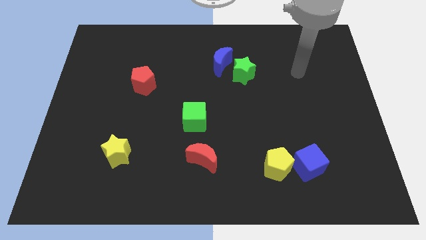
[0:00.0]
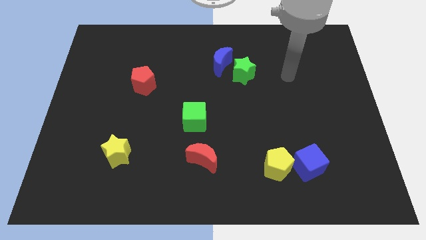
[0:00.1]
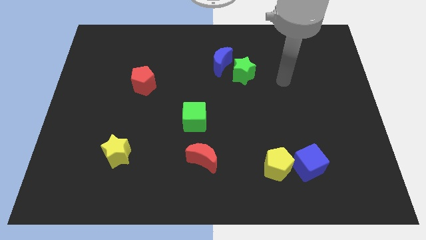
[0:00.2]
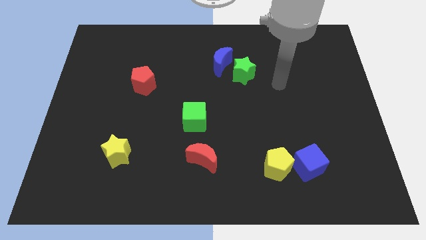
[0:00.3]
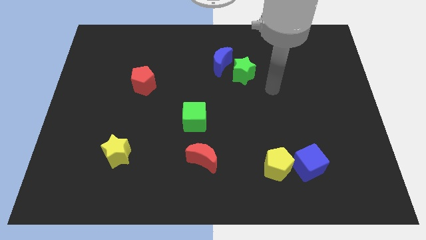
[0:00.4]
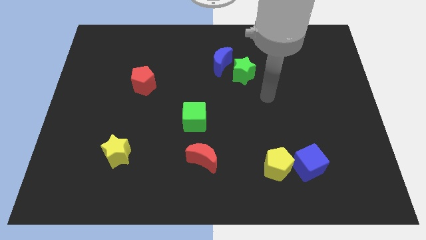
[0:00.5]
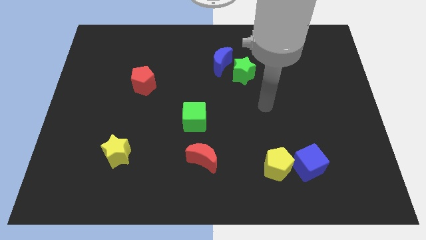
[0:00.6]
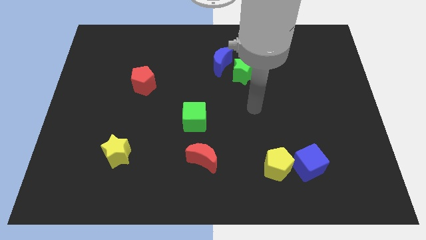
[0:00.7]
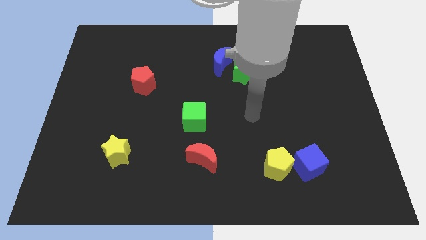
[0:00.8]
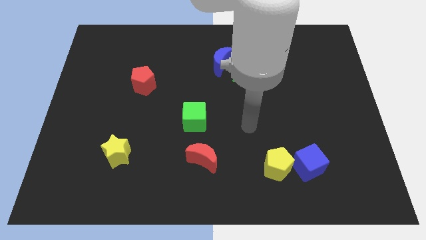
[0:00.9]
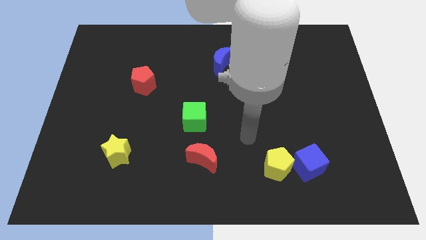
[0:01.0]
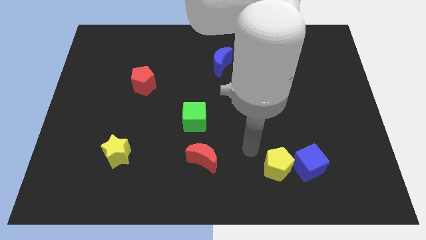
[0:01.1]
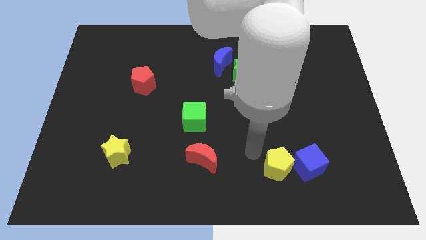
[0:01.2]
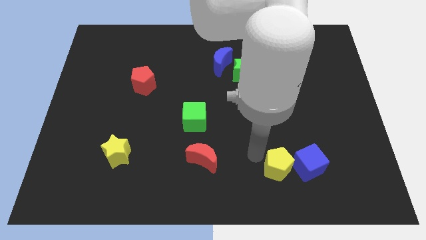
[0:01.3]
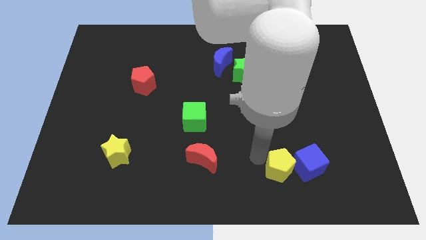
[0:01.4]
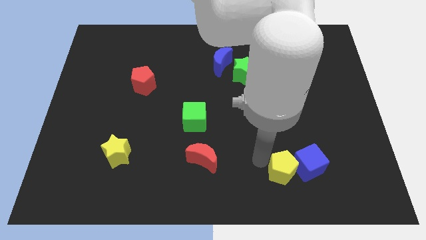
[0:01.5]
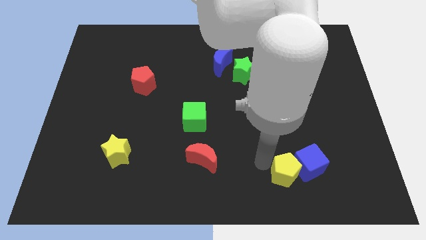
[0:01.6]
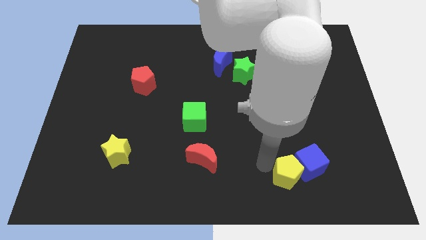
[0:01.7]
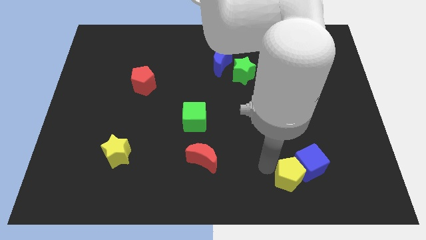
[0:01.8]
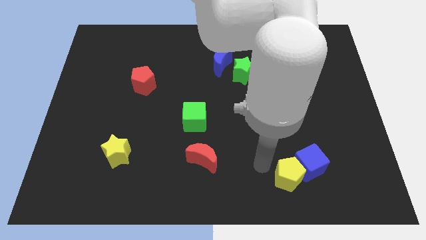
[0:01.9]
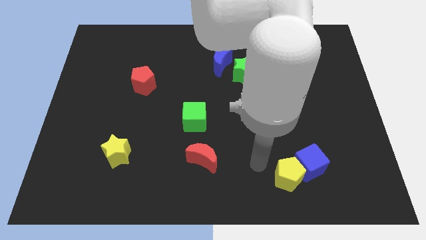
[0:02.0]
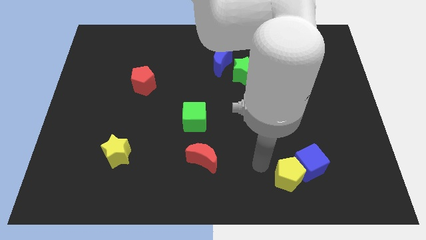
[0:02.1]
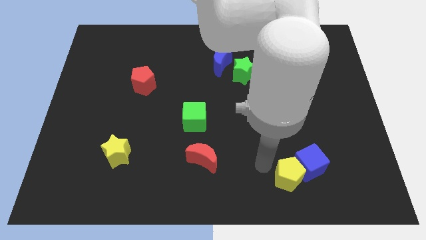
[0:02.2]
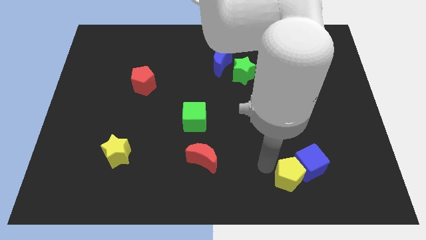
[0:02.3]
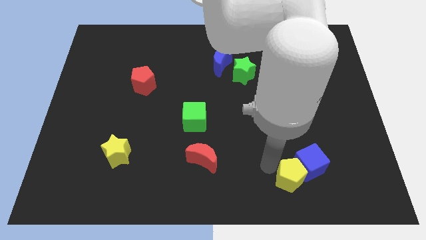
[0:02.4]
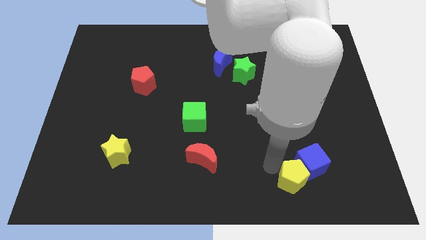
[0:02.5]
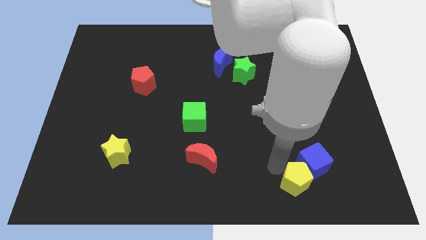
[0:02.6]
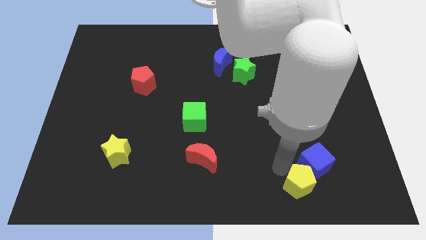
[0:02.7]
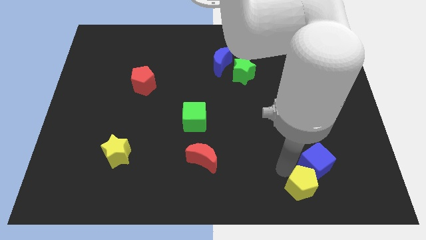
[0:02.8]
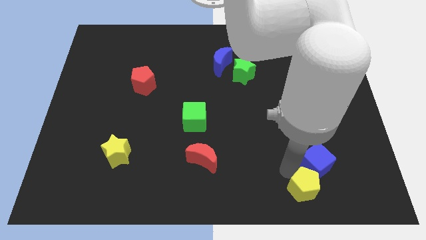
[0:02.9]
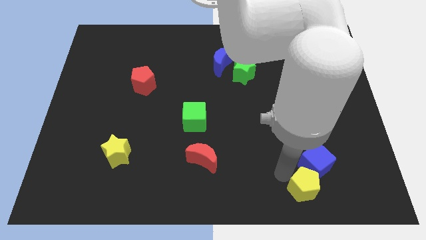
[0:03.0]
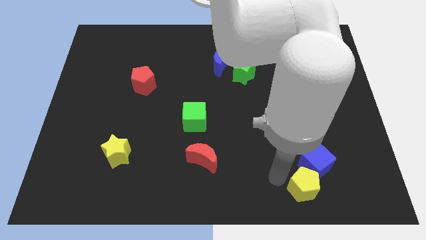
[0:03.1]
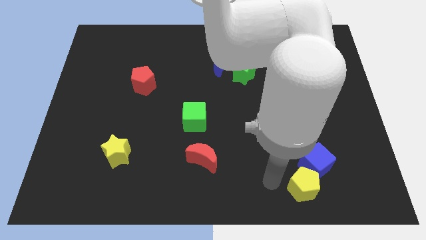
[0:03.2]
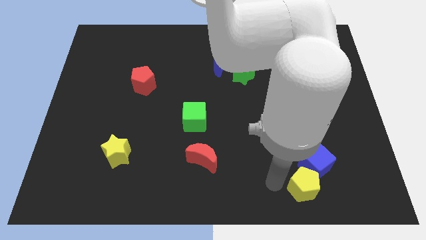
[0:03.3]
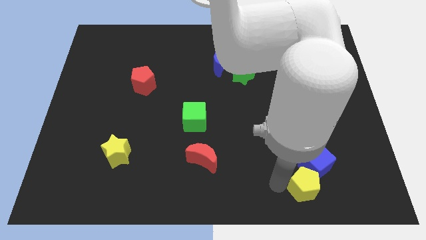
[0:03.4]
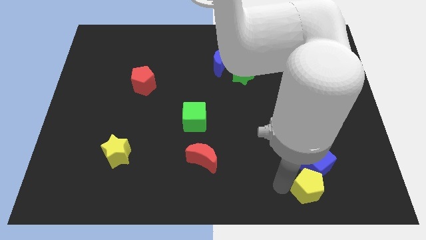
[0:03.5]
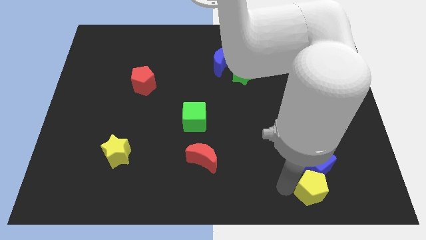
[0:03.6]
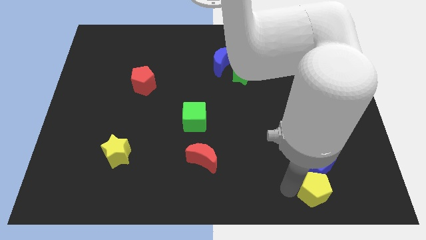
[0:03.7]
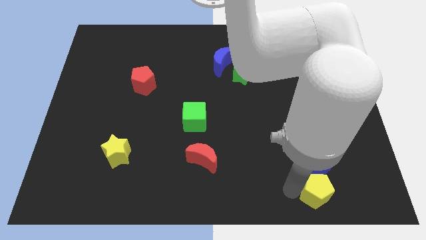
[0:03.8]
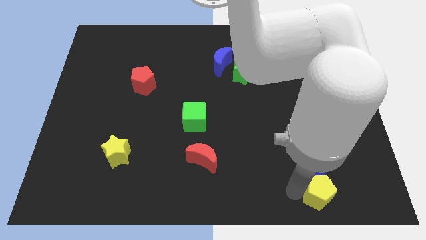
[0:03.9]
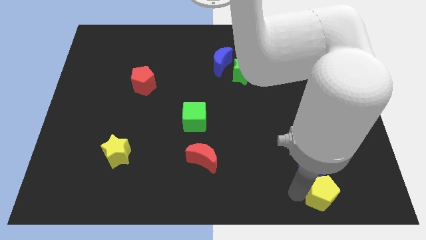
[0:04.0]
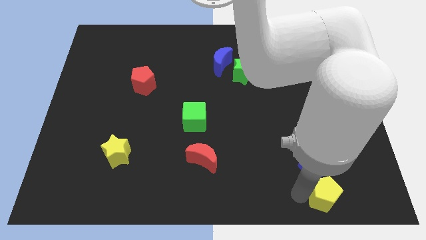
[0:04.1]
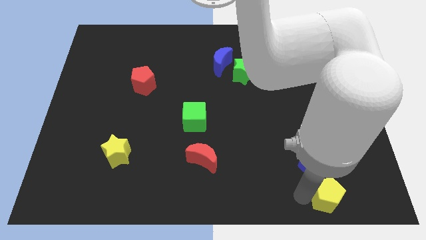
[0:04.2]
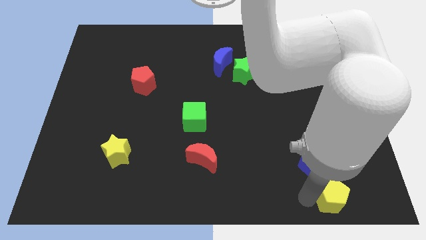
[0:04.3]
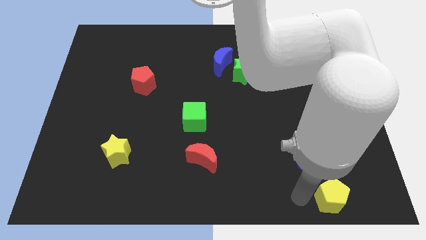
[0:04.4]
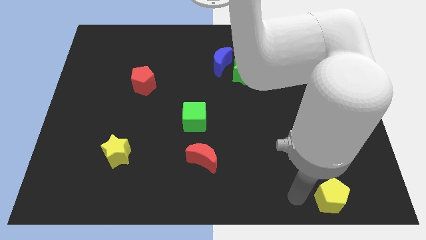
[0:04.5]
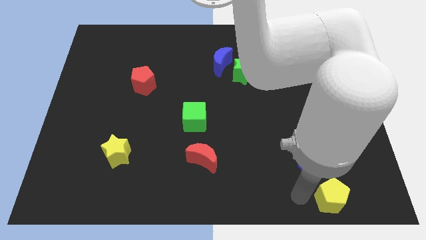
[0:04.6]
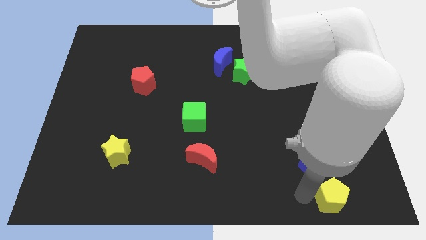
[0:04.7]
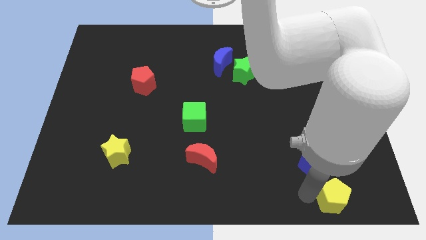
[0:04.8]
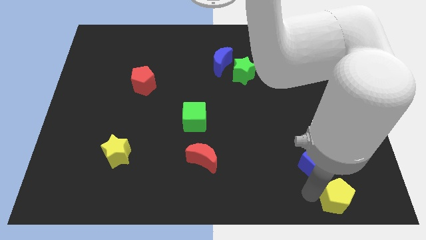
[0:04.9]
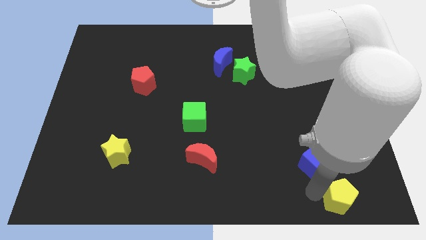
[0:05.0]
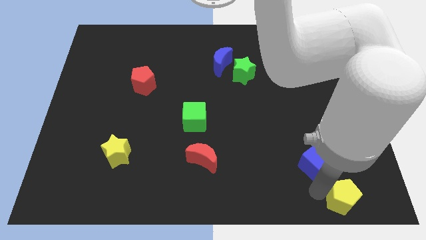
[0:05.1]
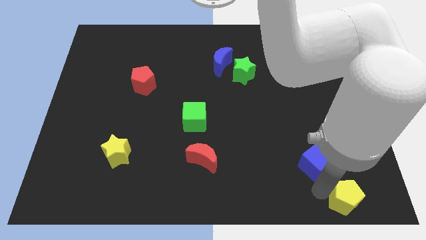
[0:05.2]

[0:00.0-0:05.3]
push the yellow pentagon to the lower right corner

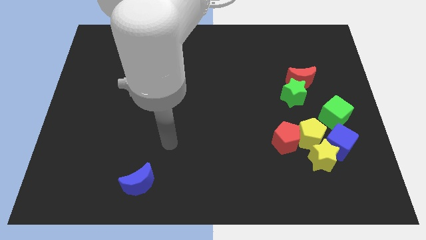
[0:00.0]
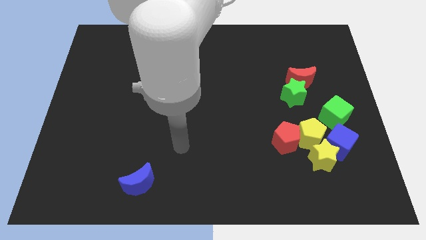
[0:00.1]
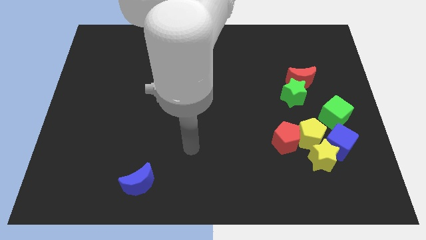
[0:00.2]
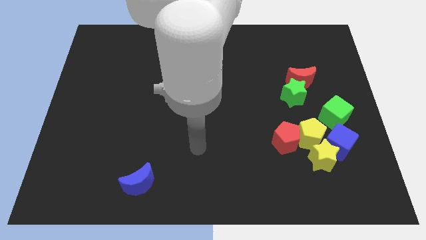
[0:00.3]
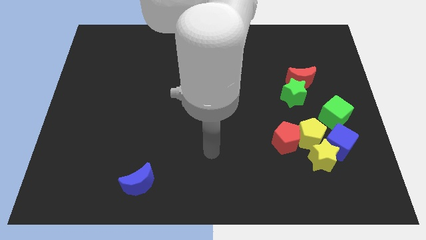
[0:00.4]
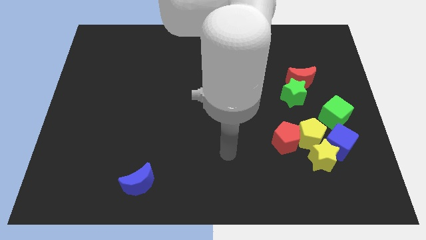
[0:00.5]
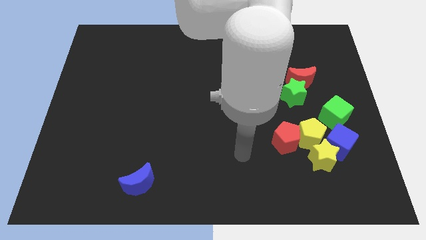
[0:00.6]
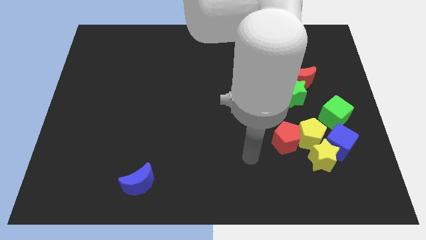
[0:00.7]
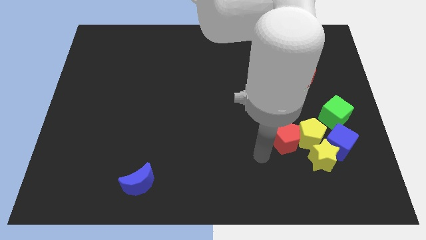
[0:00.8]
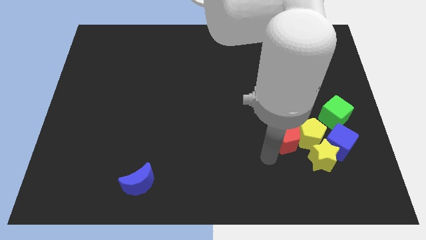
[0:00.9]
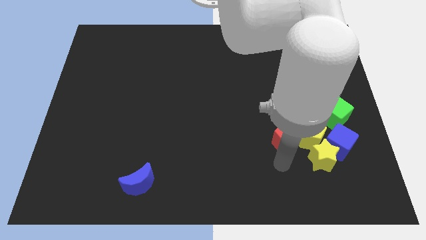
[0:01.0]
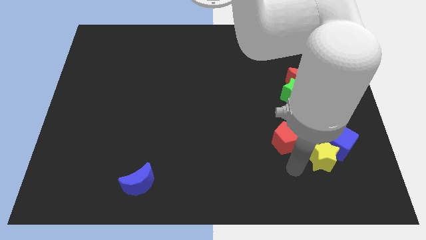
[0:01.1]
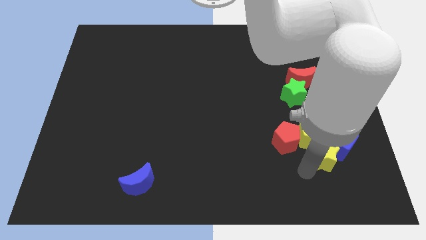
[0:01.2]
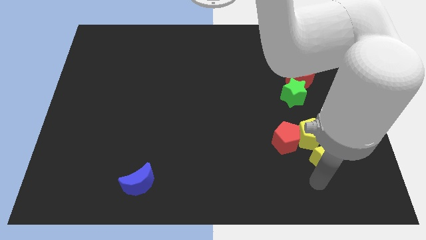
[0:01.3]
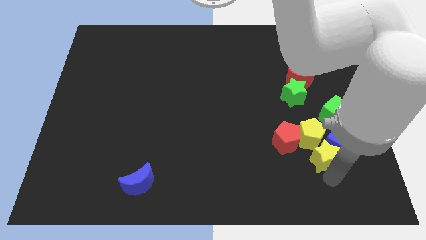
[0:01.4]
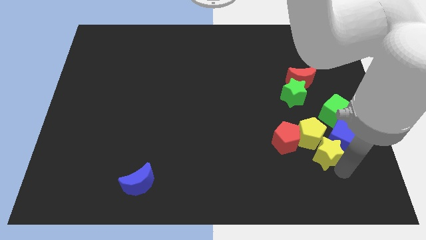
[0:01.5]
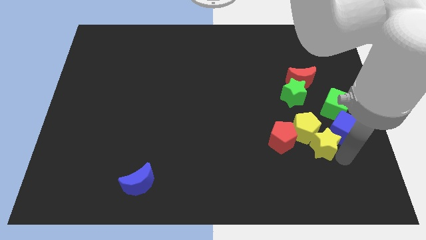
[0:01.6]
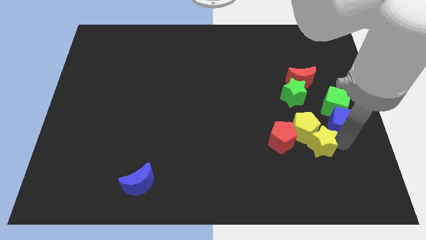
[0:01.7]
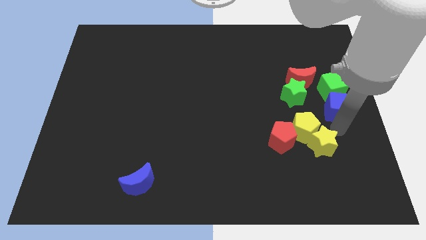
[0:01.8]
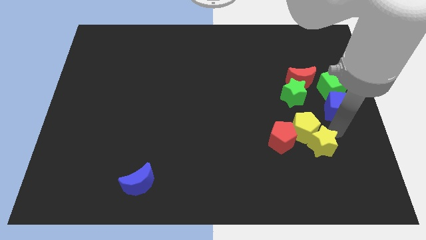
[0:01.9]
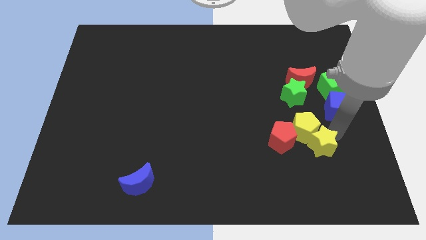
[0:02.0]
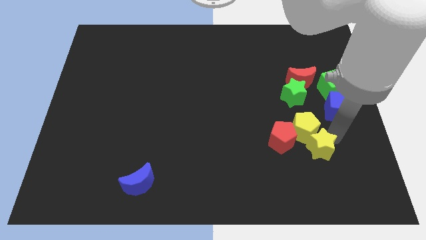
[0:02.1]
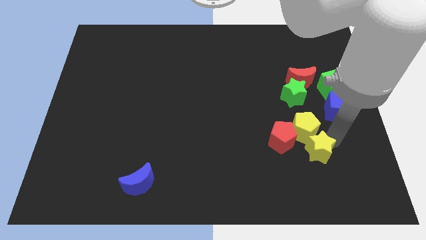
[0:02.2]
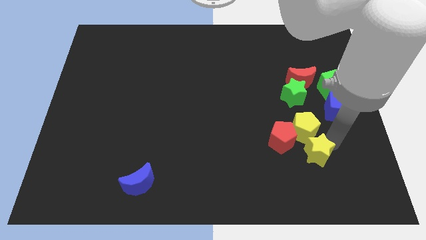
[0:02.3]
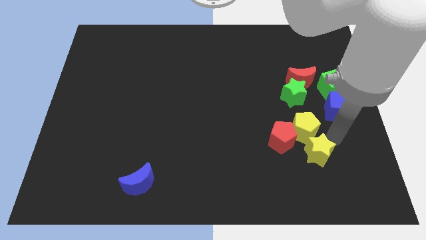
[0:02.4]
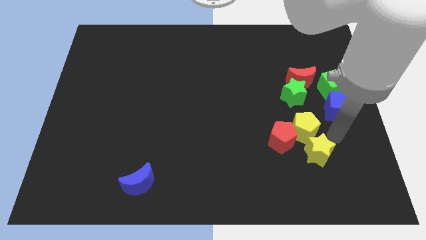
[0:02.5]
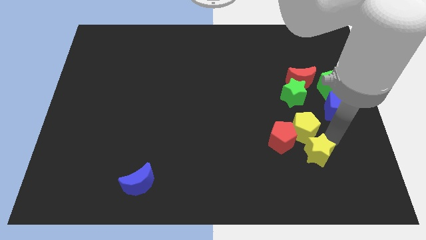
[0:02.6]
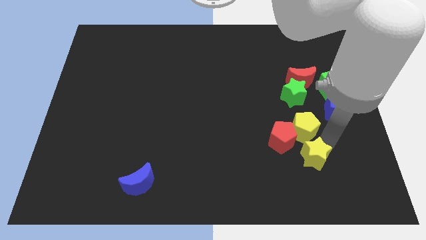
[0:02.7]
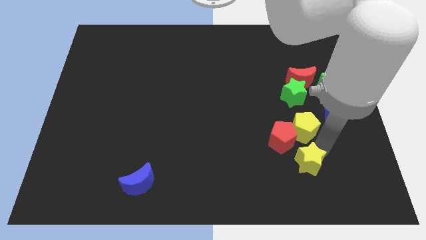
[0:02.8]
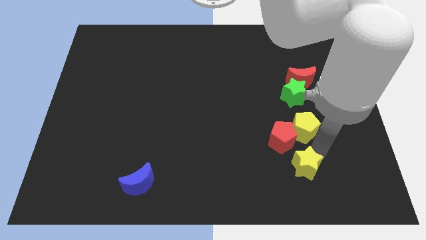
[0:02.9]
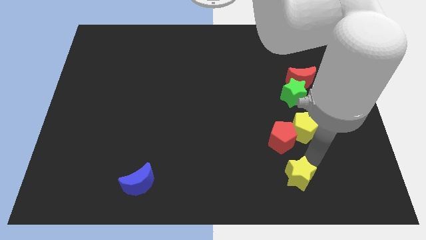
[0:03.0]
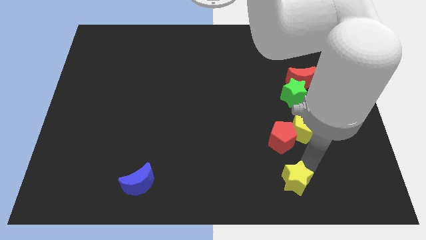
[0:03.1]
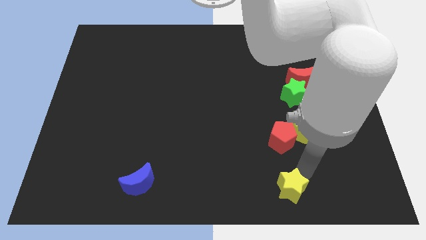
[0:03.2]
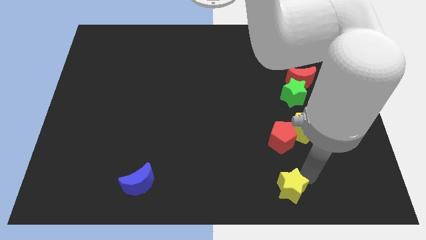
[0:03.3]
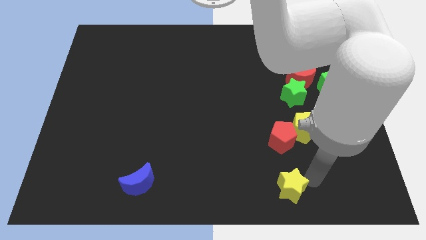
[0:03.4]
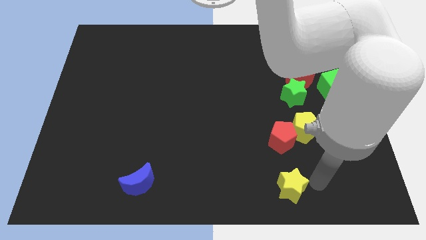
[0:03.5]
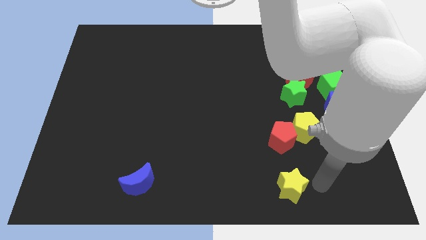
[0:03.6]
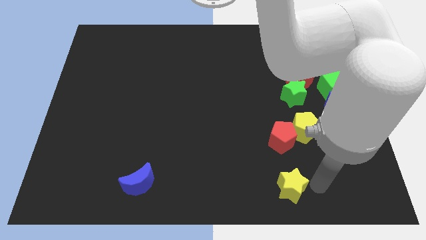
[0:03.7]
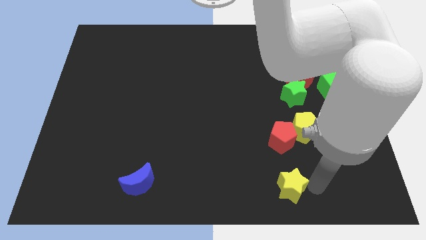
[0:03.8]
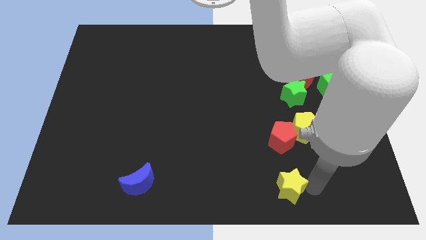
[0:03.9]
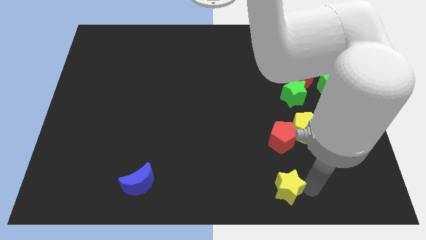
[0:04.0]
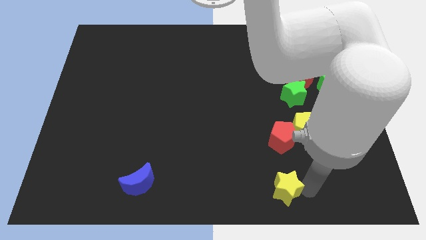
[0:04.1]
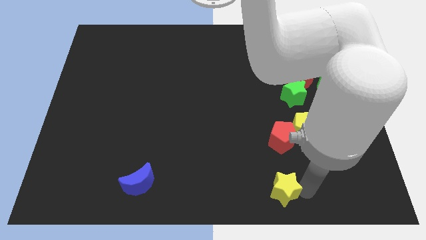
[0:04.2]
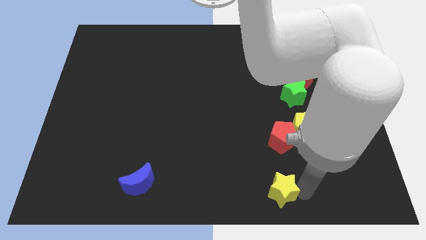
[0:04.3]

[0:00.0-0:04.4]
slide the yellow star to the bottom side
